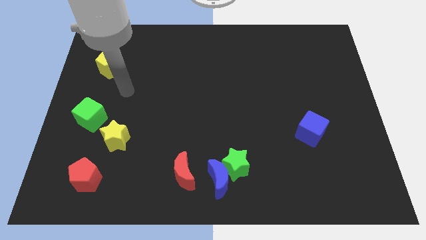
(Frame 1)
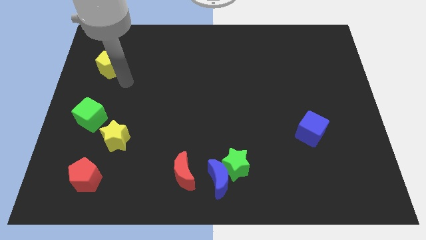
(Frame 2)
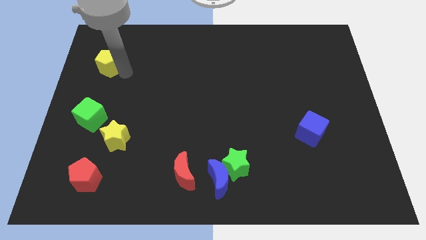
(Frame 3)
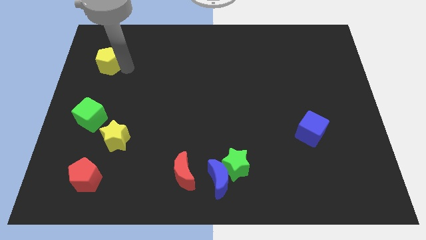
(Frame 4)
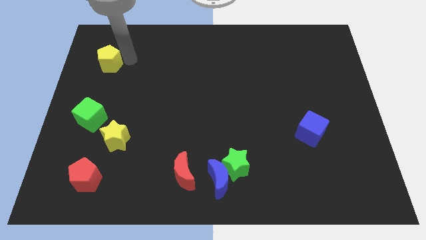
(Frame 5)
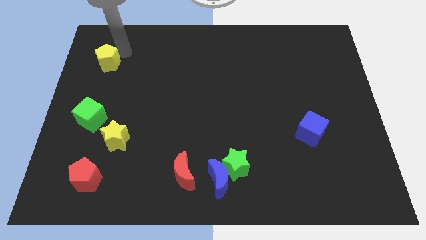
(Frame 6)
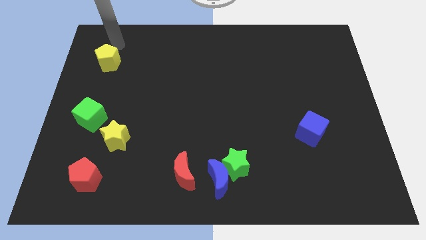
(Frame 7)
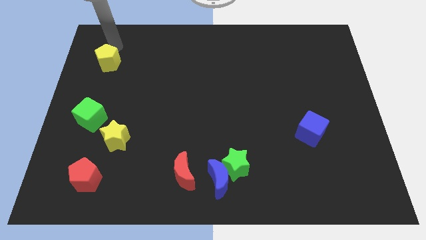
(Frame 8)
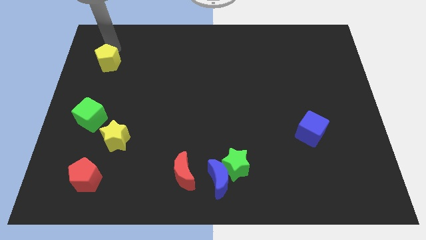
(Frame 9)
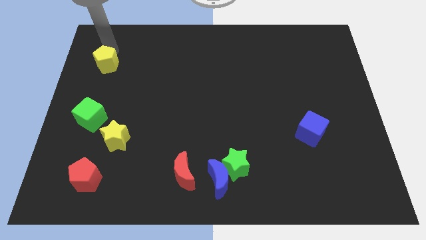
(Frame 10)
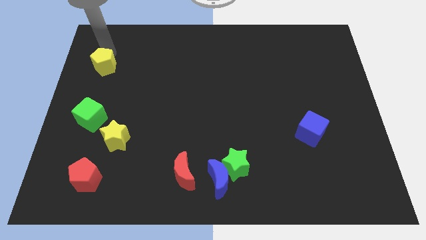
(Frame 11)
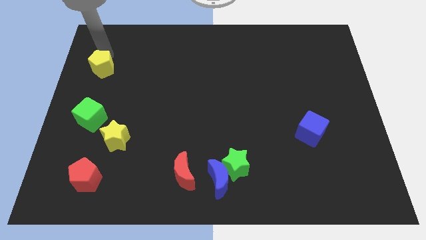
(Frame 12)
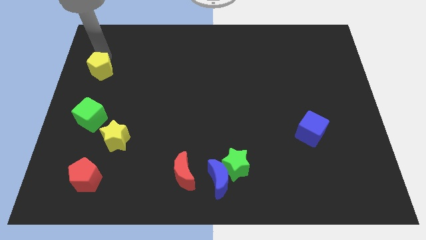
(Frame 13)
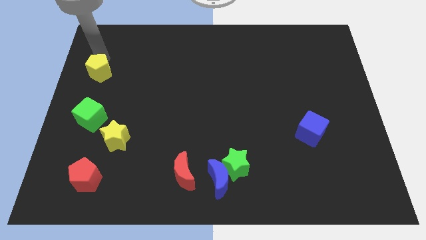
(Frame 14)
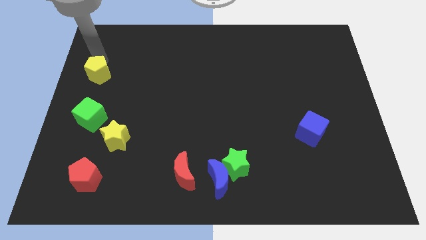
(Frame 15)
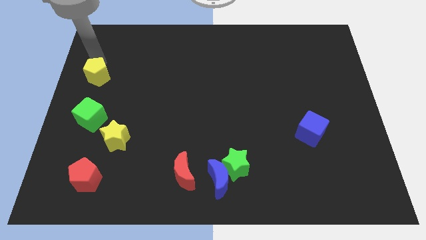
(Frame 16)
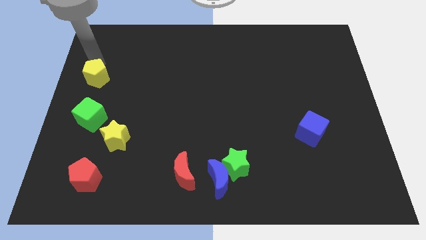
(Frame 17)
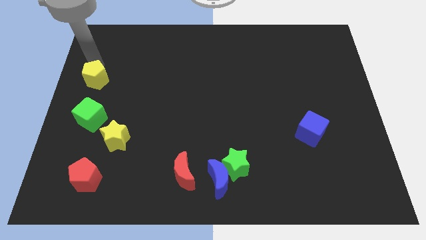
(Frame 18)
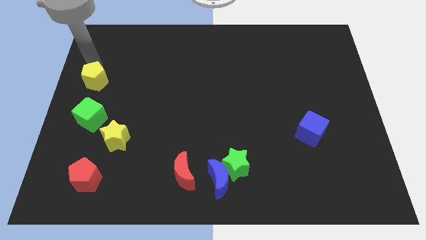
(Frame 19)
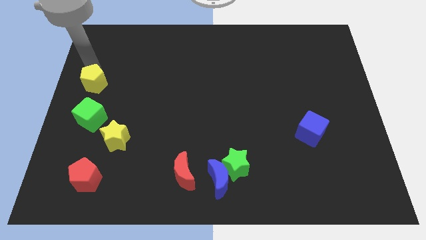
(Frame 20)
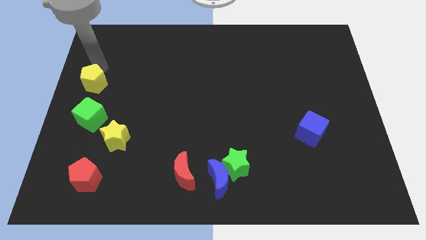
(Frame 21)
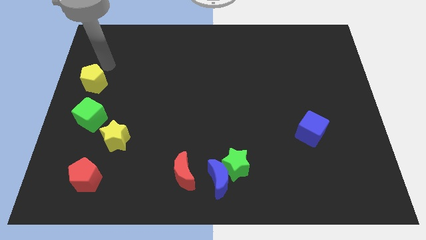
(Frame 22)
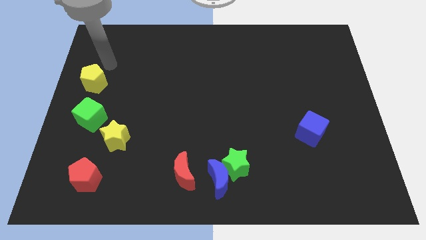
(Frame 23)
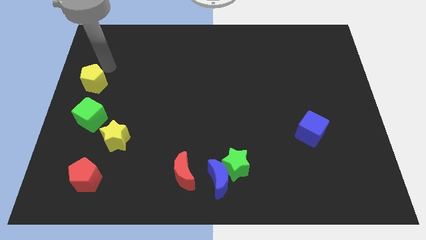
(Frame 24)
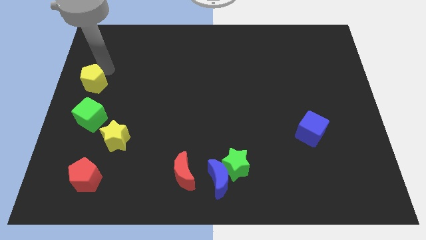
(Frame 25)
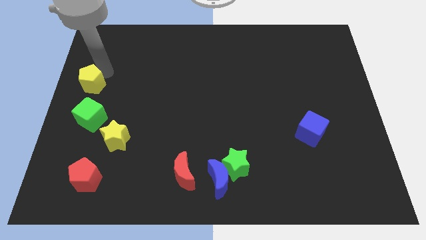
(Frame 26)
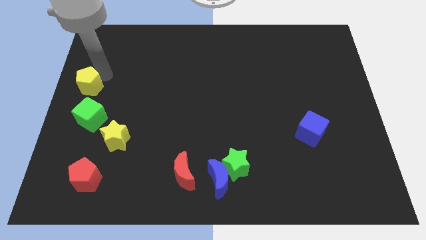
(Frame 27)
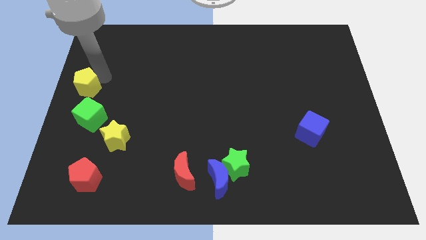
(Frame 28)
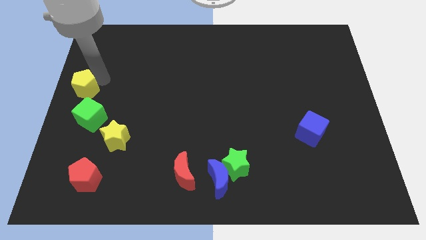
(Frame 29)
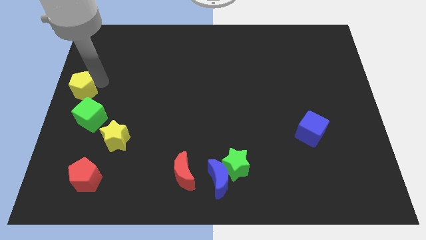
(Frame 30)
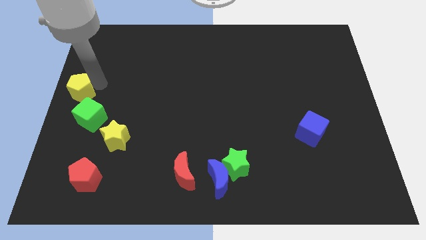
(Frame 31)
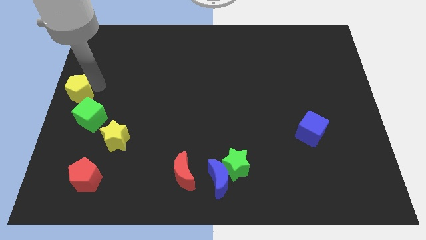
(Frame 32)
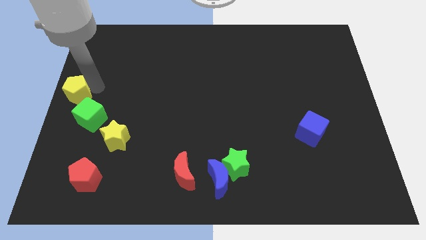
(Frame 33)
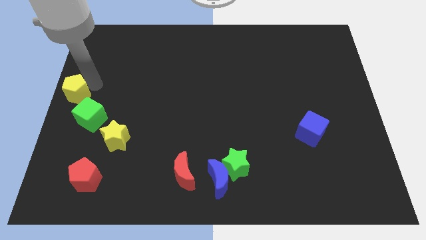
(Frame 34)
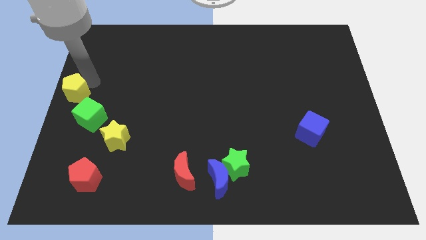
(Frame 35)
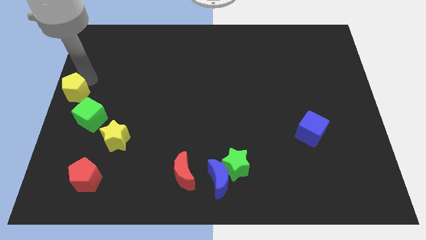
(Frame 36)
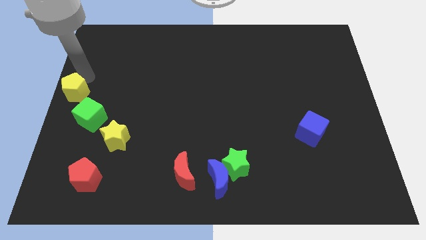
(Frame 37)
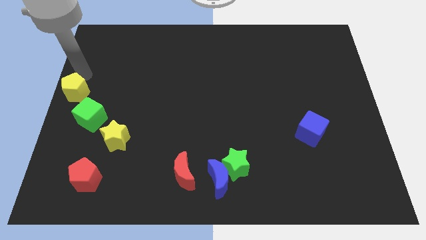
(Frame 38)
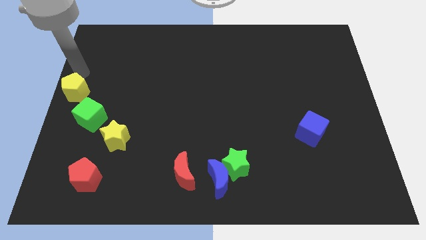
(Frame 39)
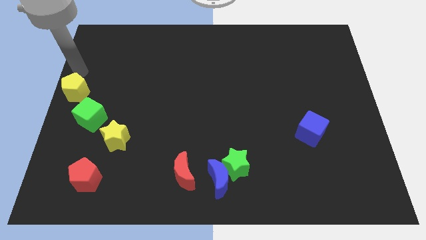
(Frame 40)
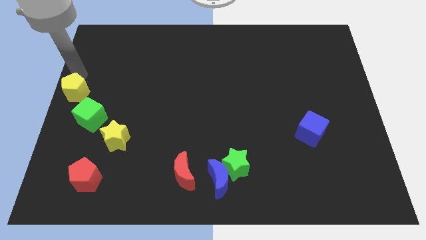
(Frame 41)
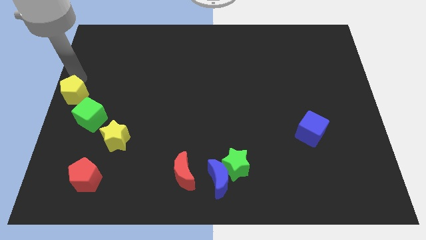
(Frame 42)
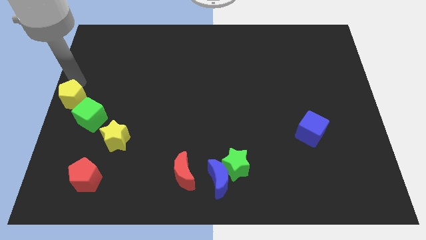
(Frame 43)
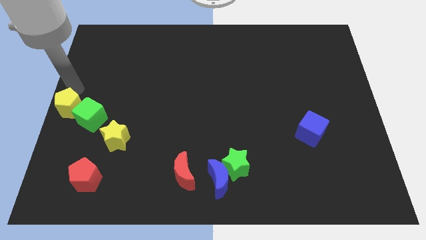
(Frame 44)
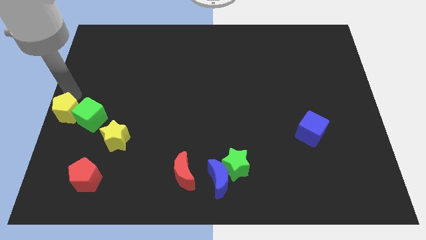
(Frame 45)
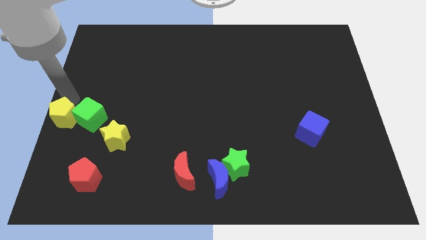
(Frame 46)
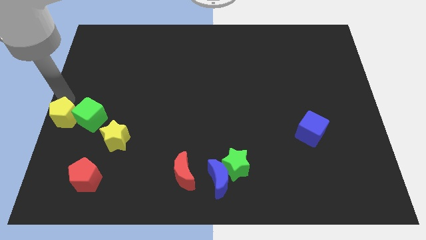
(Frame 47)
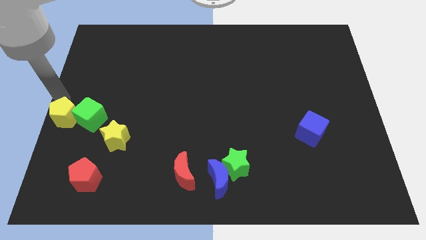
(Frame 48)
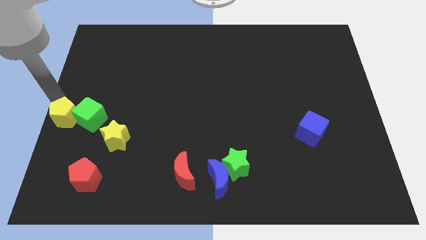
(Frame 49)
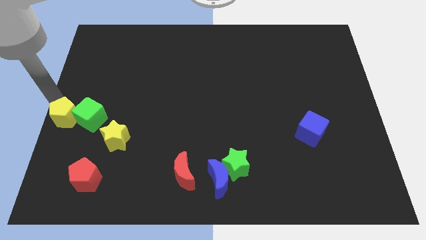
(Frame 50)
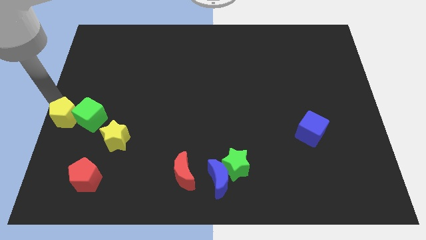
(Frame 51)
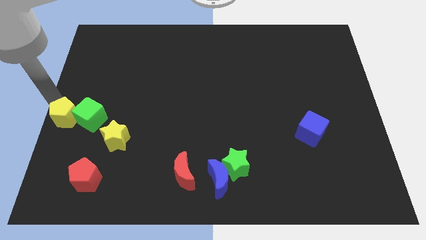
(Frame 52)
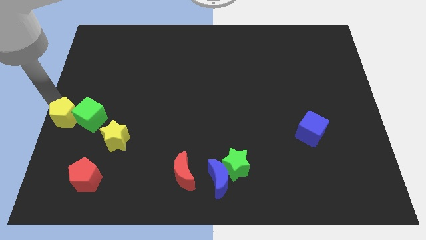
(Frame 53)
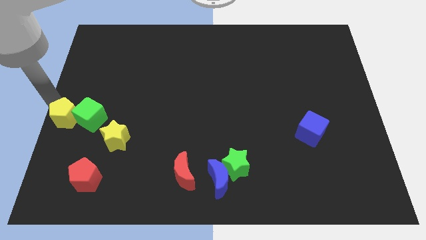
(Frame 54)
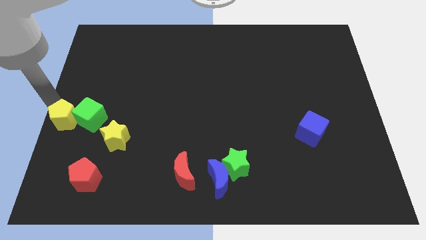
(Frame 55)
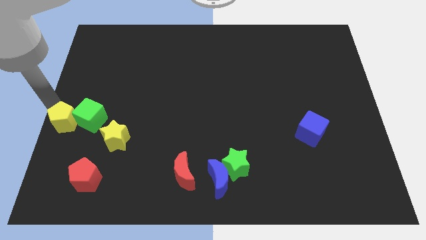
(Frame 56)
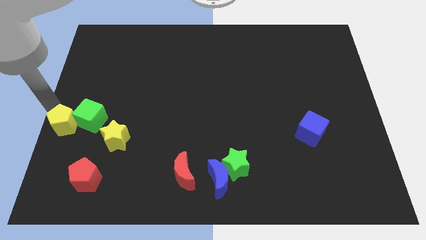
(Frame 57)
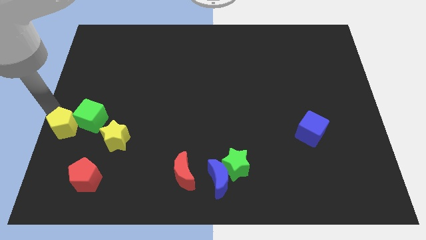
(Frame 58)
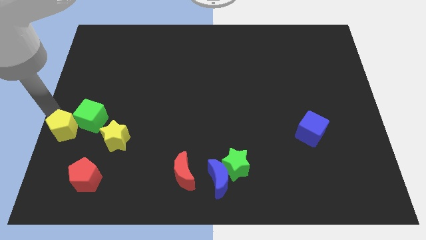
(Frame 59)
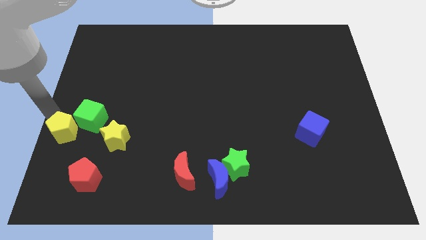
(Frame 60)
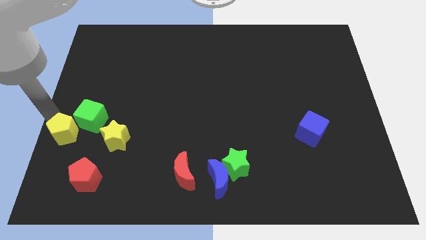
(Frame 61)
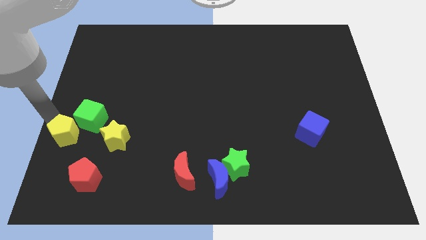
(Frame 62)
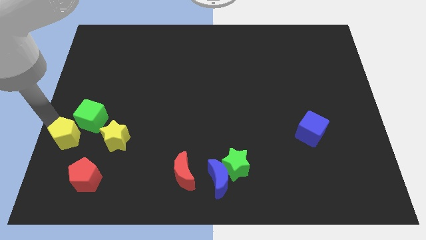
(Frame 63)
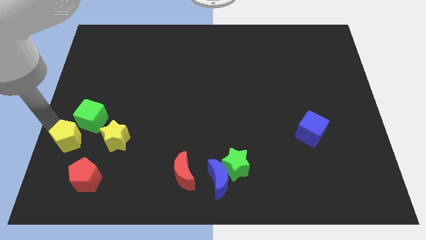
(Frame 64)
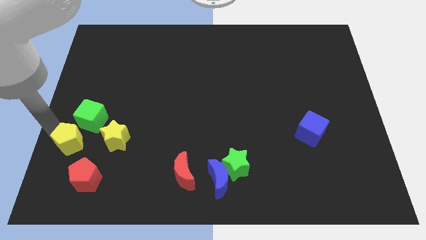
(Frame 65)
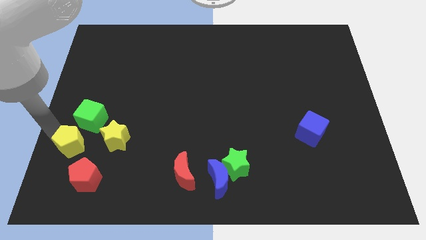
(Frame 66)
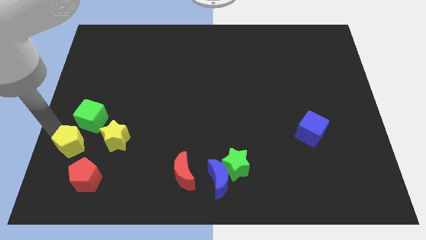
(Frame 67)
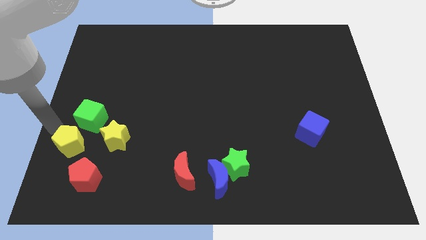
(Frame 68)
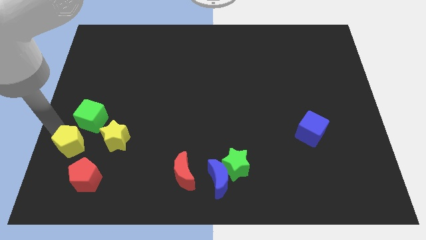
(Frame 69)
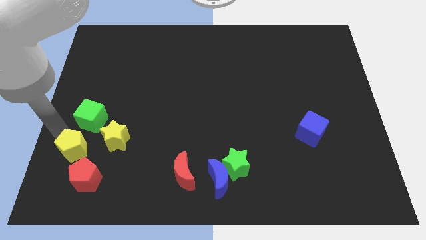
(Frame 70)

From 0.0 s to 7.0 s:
move the yellow pentagon to the bottom left side of the yellow star
